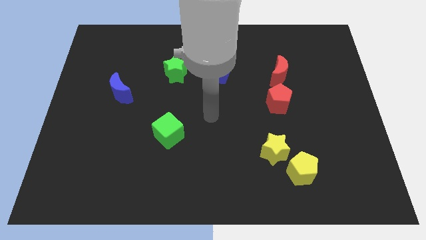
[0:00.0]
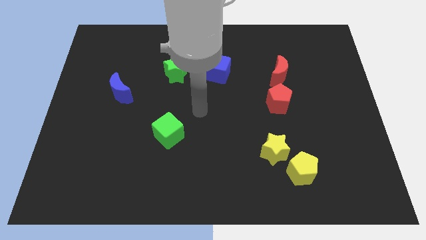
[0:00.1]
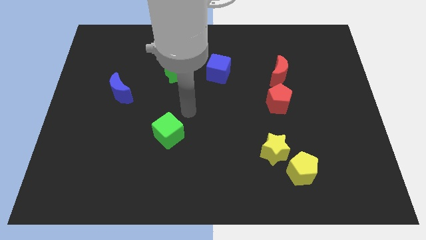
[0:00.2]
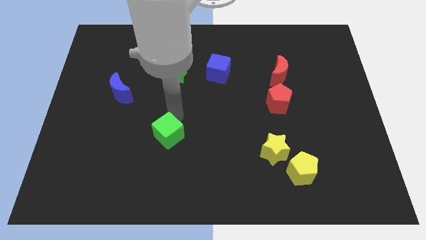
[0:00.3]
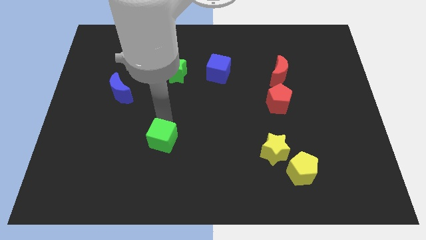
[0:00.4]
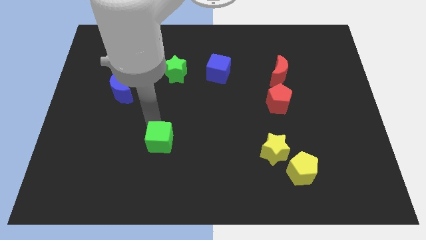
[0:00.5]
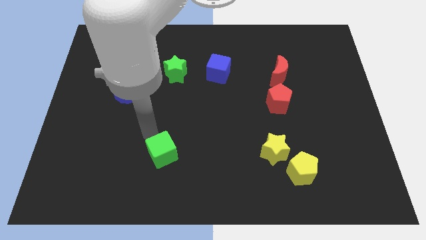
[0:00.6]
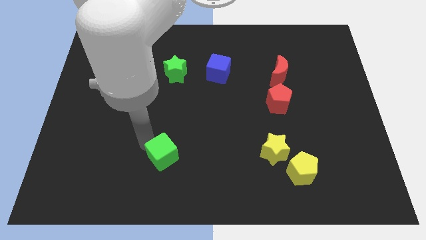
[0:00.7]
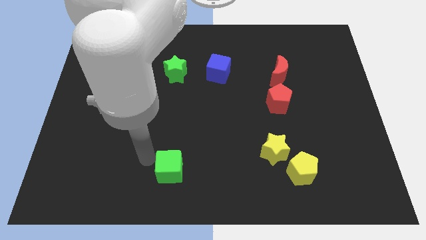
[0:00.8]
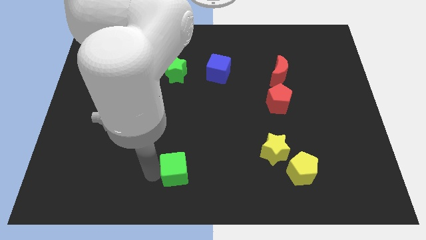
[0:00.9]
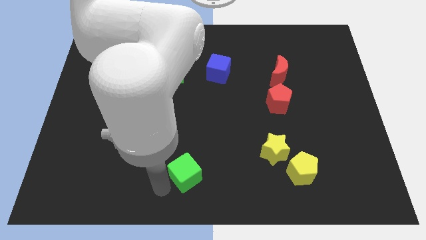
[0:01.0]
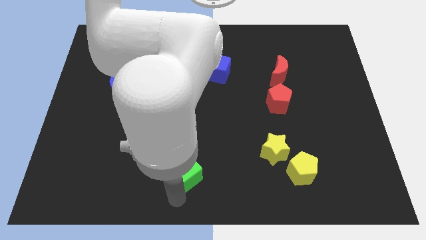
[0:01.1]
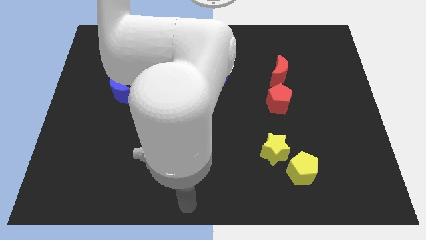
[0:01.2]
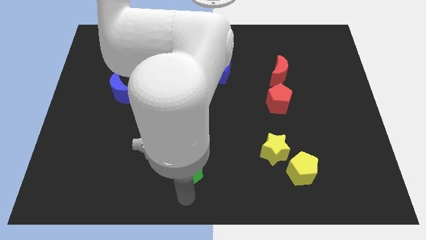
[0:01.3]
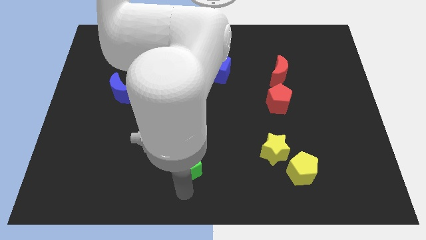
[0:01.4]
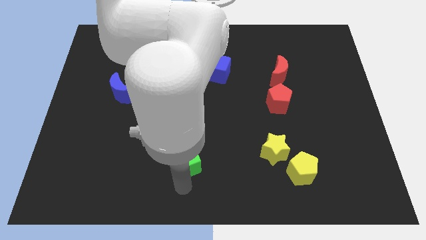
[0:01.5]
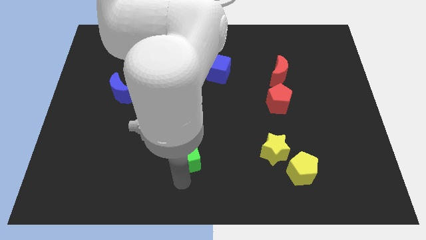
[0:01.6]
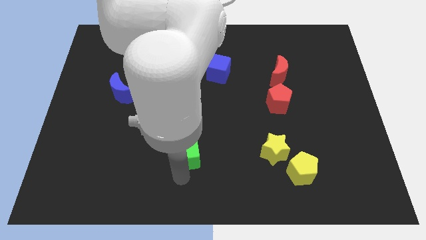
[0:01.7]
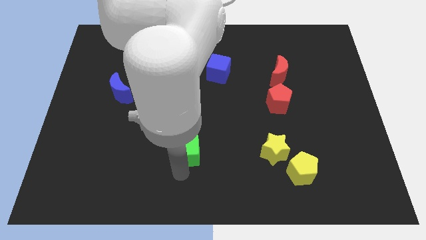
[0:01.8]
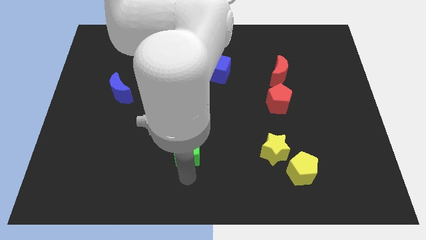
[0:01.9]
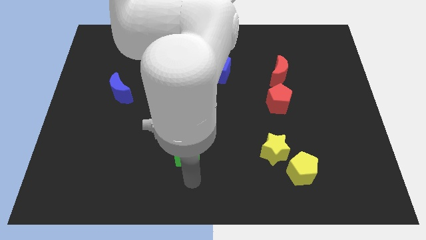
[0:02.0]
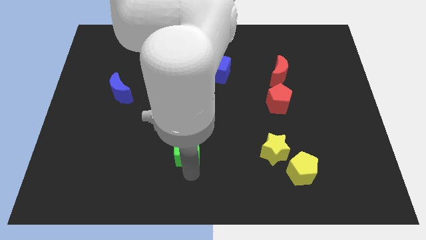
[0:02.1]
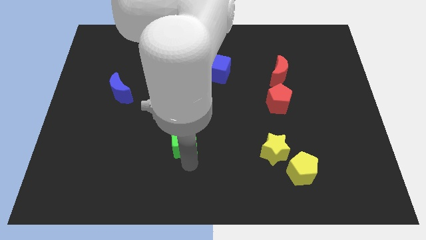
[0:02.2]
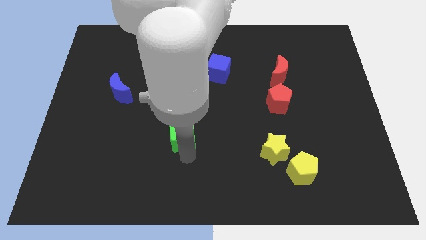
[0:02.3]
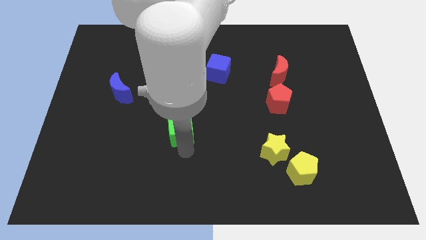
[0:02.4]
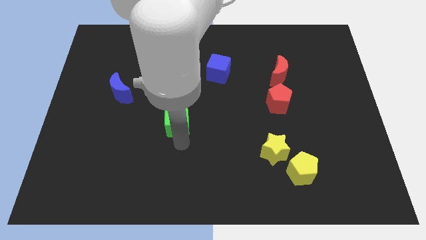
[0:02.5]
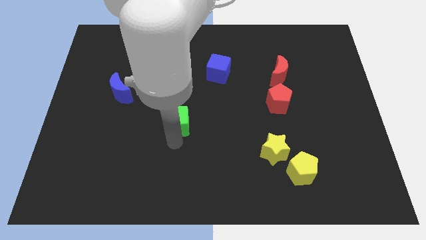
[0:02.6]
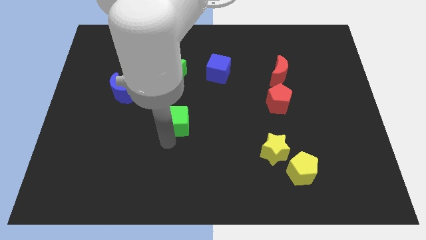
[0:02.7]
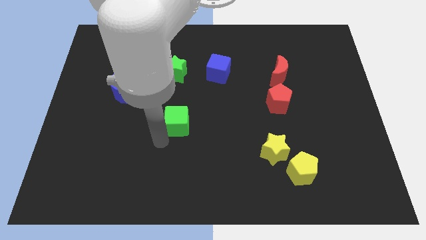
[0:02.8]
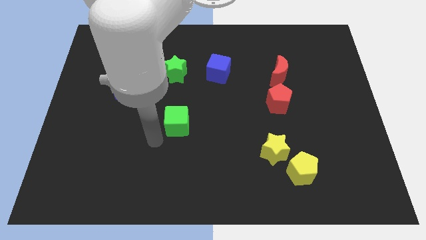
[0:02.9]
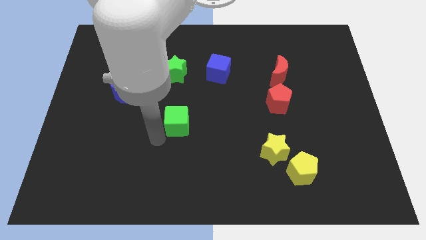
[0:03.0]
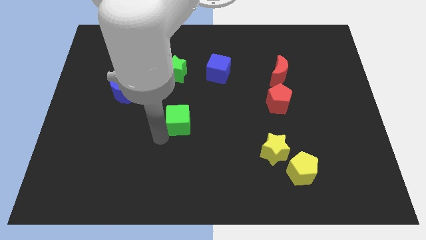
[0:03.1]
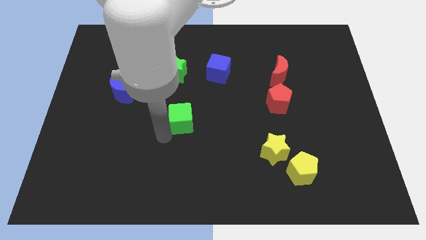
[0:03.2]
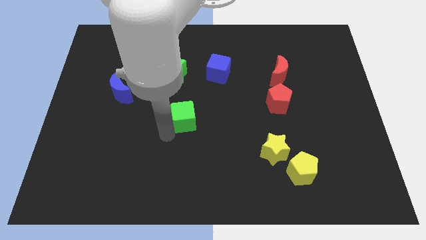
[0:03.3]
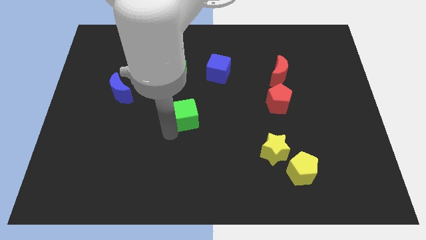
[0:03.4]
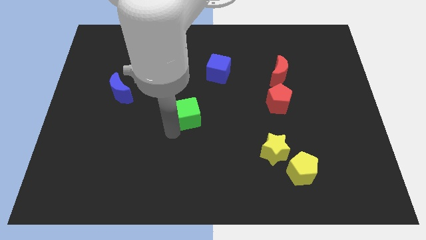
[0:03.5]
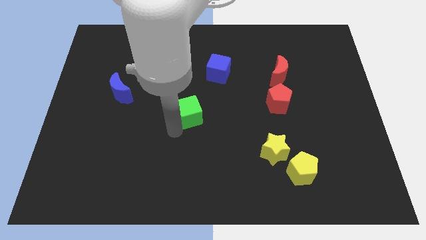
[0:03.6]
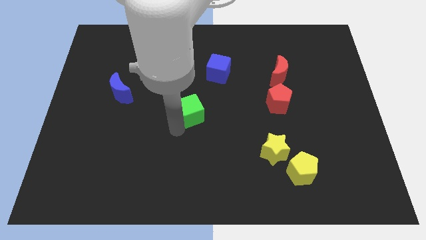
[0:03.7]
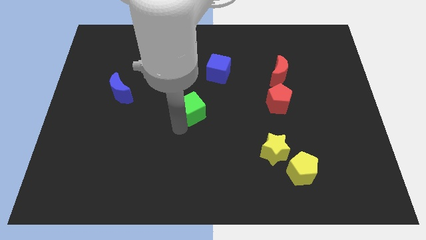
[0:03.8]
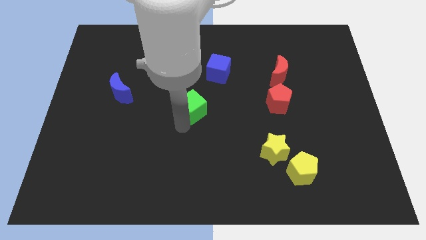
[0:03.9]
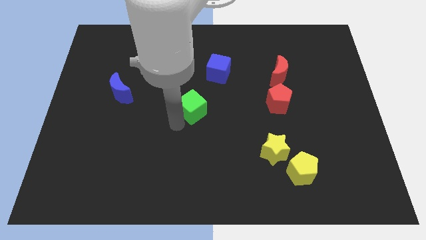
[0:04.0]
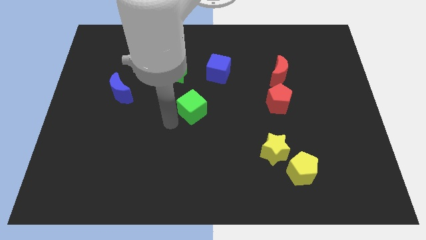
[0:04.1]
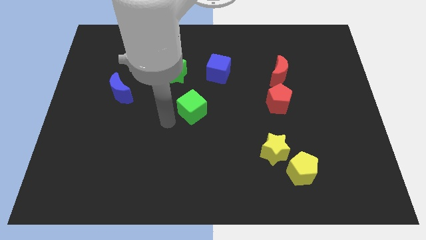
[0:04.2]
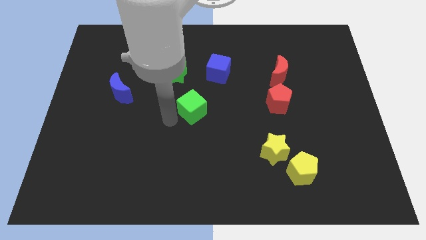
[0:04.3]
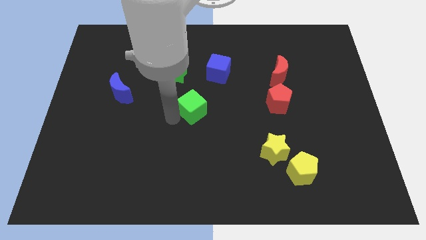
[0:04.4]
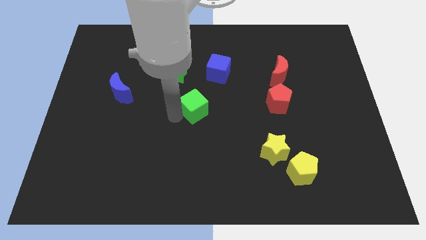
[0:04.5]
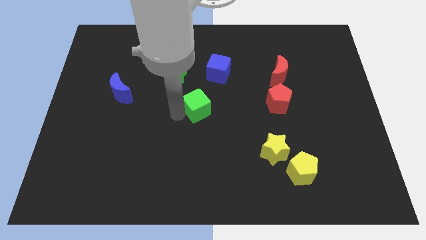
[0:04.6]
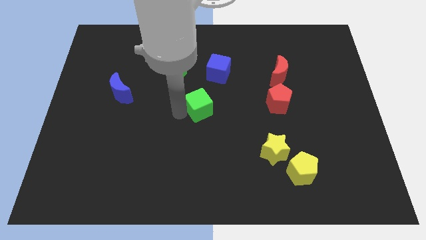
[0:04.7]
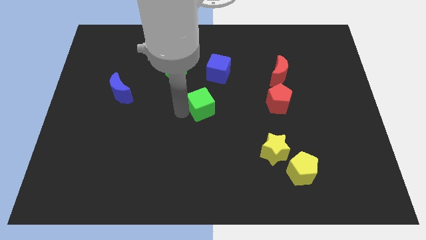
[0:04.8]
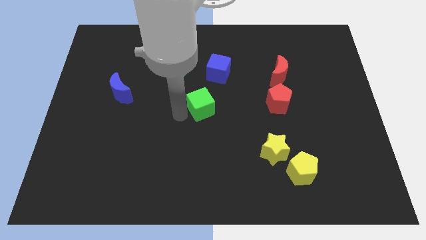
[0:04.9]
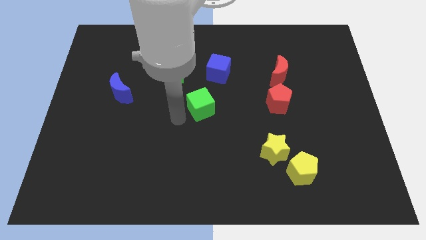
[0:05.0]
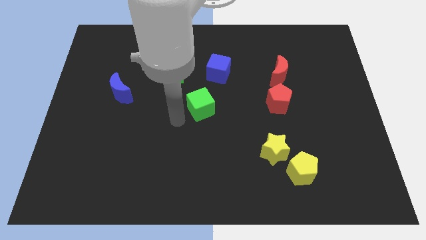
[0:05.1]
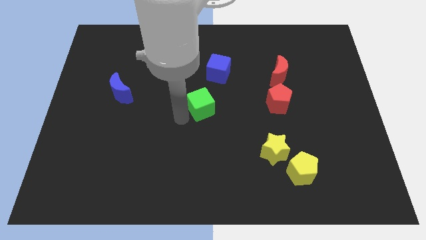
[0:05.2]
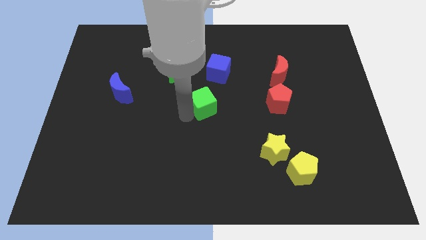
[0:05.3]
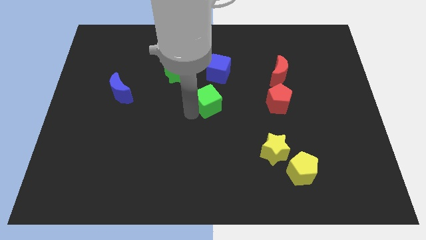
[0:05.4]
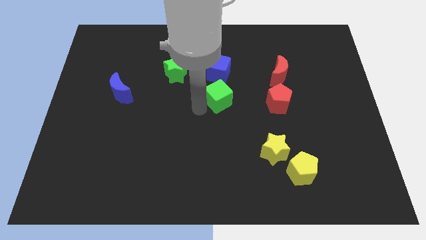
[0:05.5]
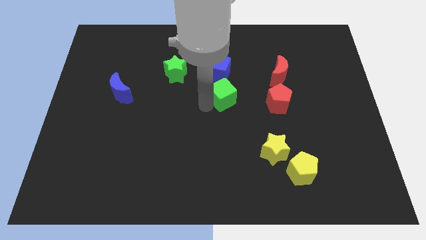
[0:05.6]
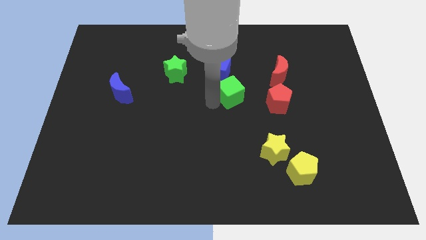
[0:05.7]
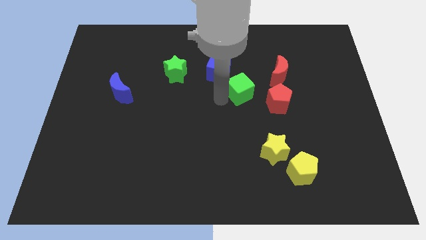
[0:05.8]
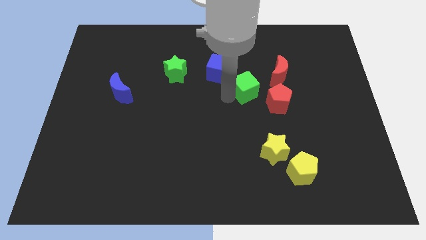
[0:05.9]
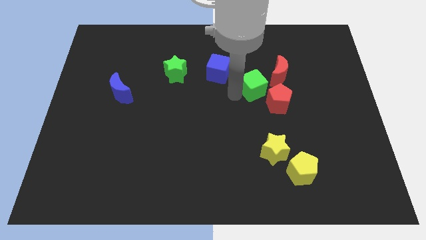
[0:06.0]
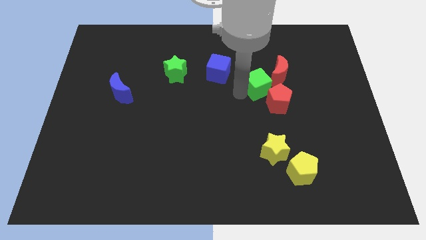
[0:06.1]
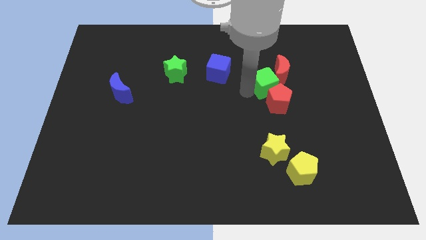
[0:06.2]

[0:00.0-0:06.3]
move the green cube towards the red moon

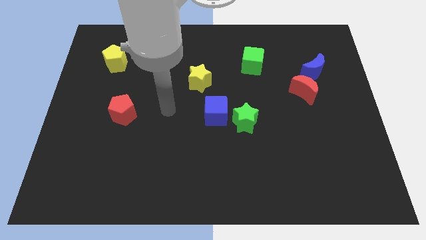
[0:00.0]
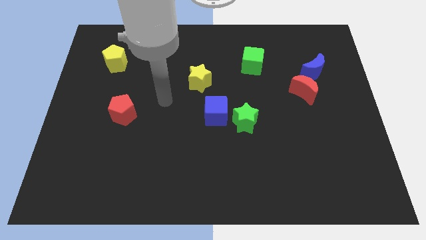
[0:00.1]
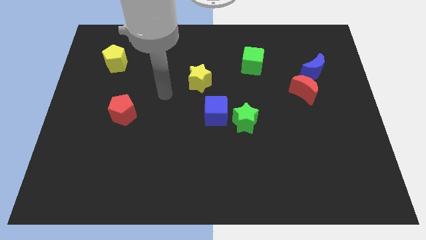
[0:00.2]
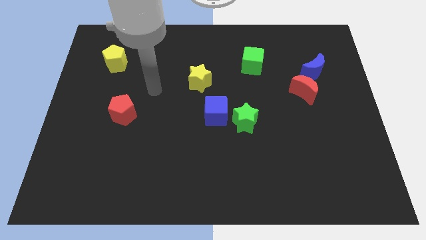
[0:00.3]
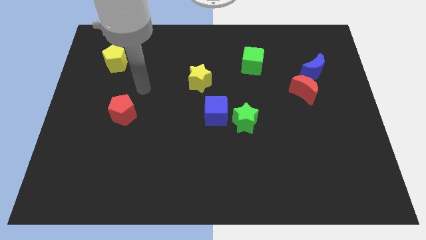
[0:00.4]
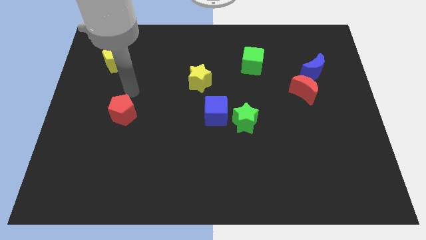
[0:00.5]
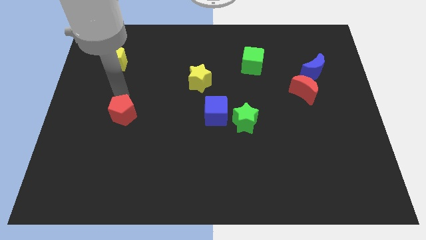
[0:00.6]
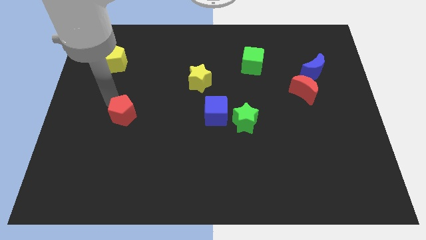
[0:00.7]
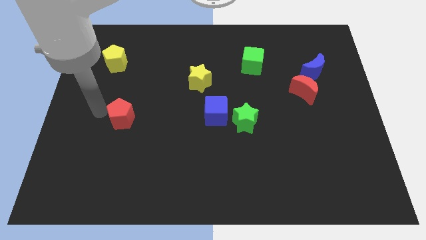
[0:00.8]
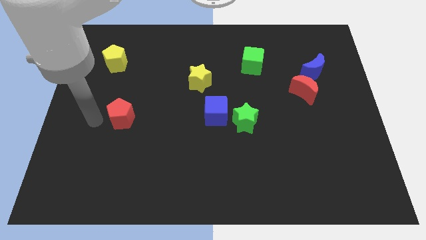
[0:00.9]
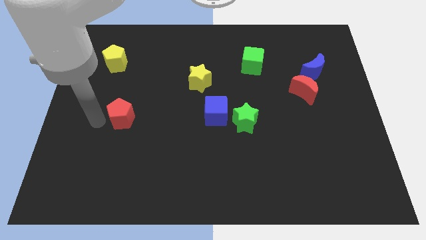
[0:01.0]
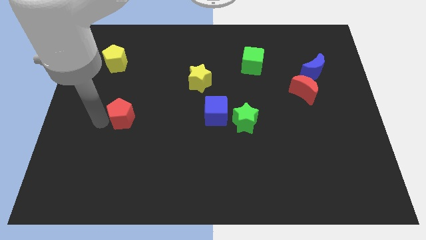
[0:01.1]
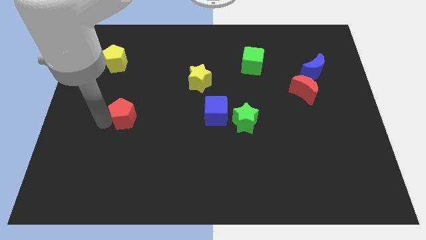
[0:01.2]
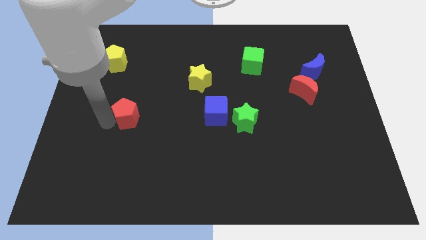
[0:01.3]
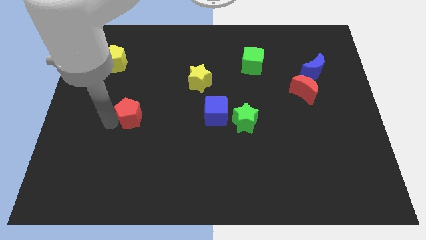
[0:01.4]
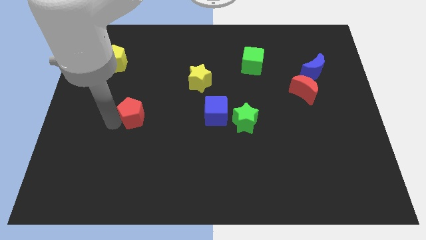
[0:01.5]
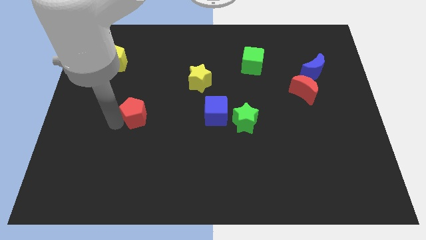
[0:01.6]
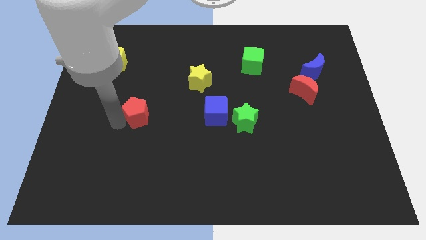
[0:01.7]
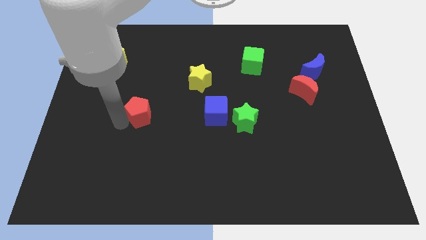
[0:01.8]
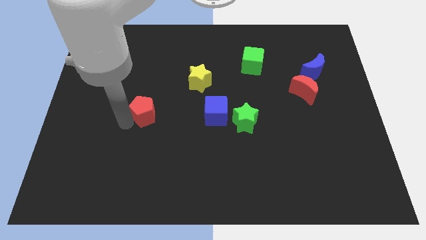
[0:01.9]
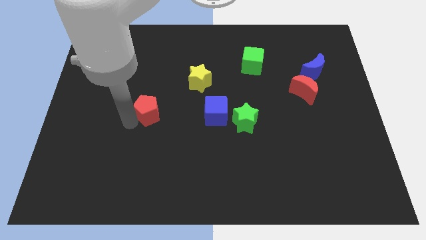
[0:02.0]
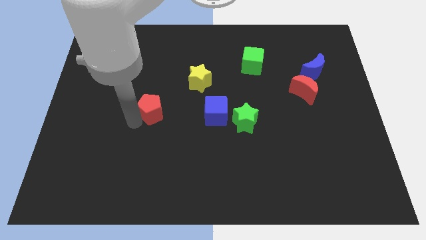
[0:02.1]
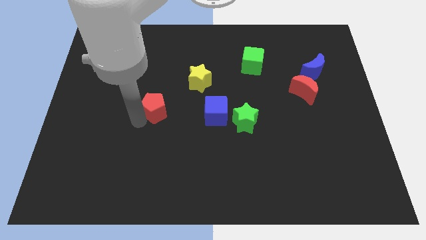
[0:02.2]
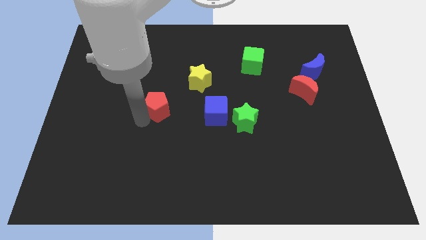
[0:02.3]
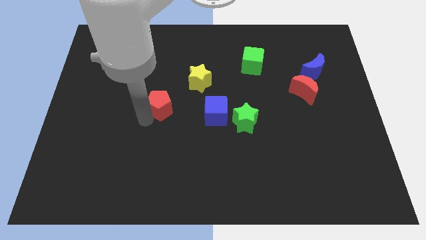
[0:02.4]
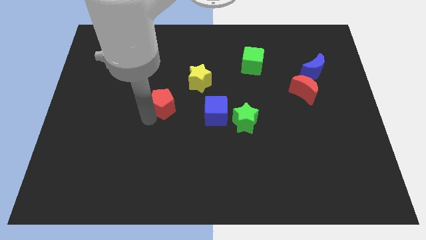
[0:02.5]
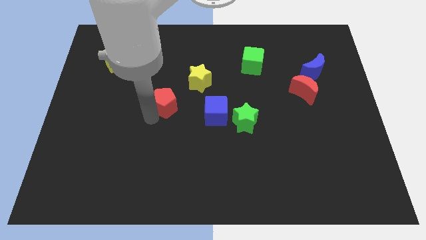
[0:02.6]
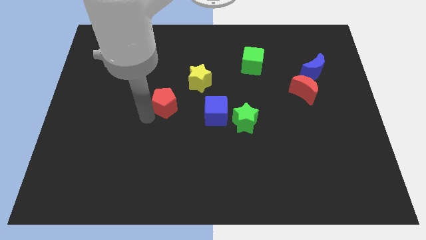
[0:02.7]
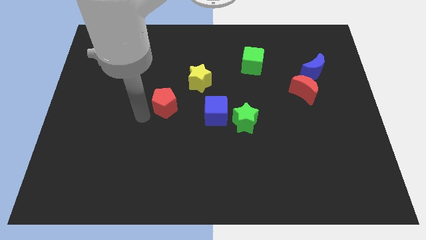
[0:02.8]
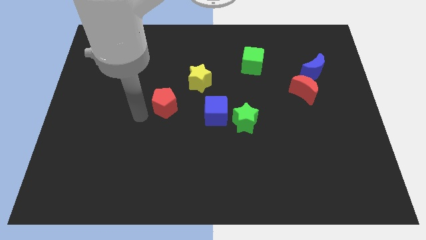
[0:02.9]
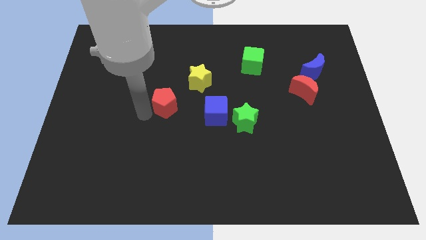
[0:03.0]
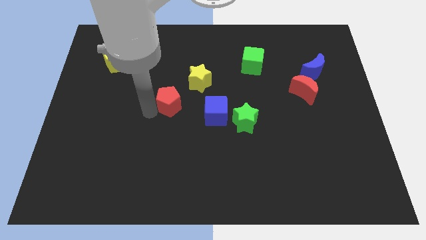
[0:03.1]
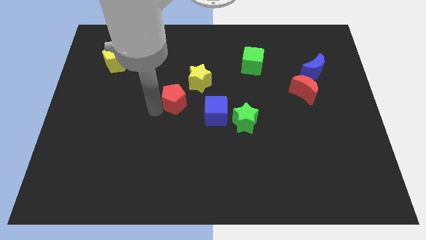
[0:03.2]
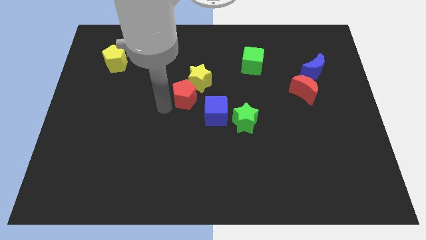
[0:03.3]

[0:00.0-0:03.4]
move the red pentagon next to the yellow star
